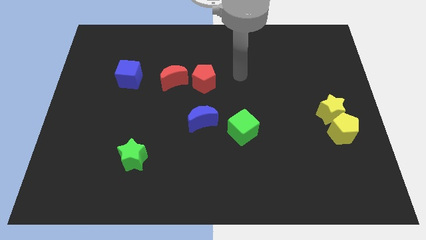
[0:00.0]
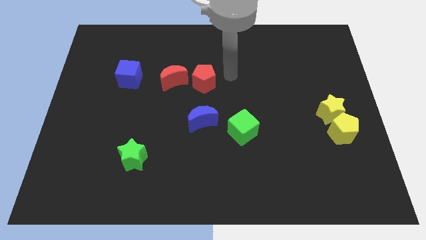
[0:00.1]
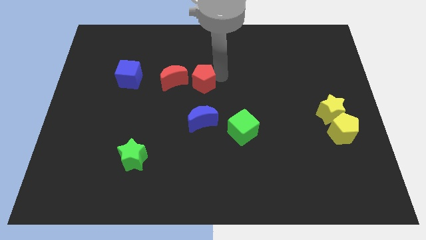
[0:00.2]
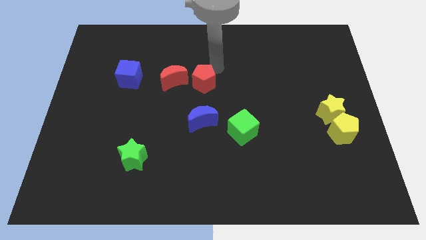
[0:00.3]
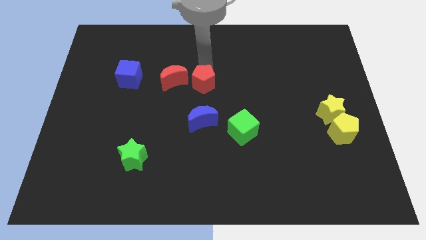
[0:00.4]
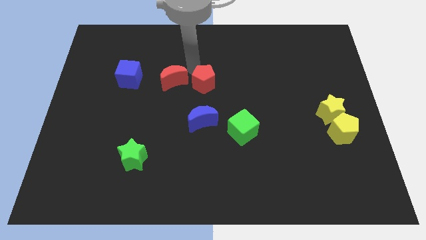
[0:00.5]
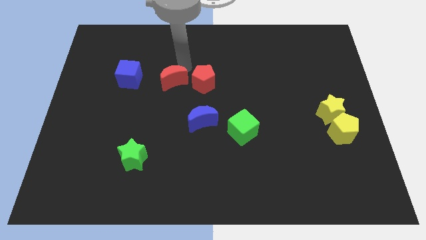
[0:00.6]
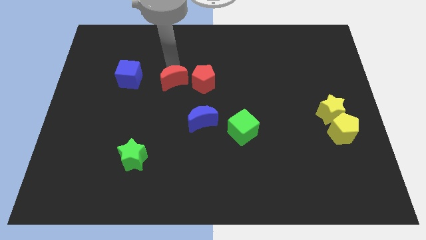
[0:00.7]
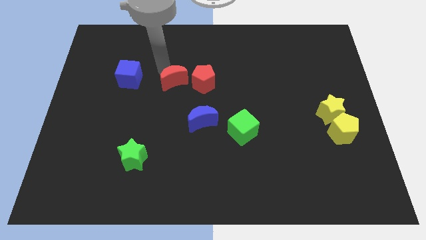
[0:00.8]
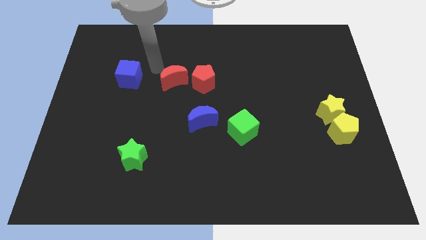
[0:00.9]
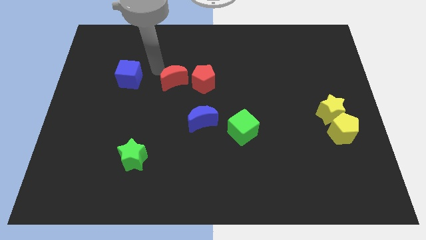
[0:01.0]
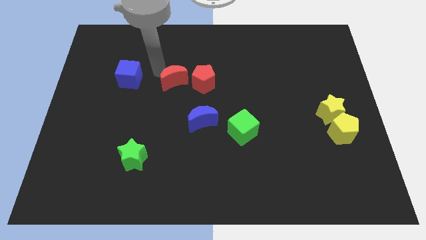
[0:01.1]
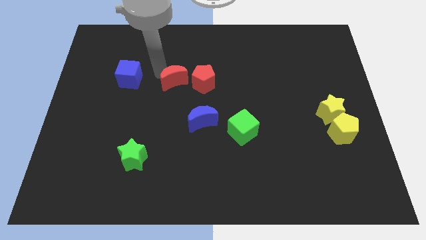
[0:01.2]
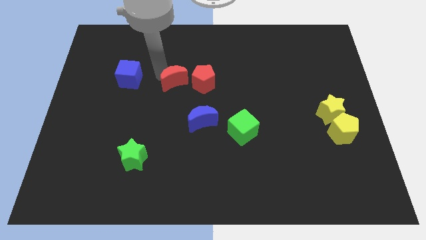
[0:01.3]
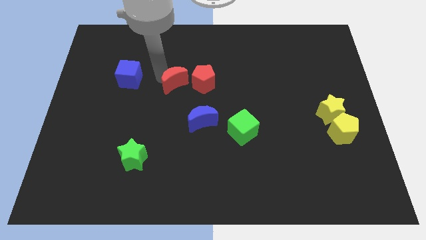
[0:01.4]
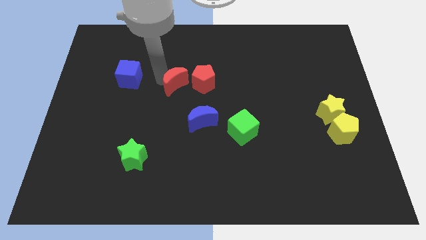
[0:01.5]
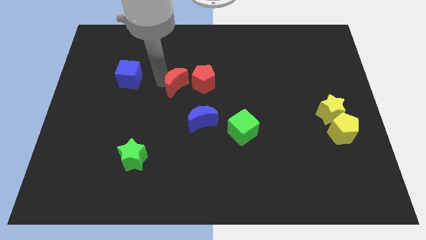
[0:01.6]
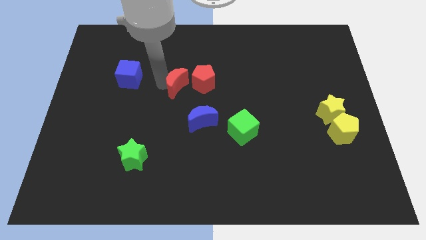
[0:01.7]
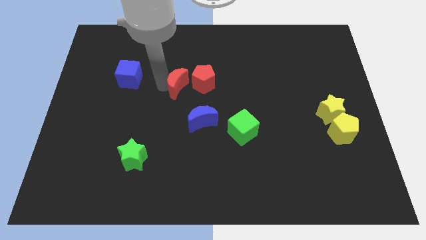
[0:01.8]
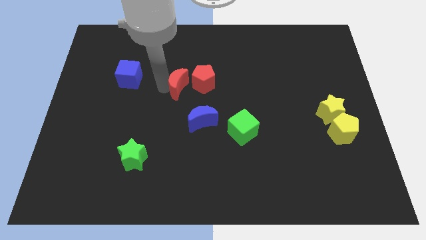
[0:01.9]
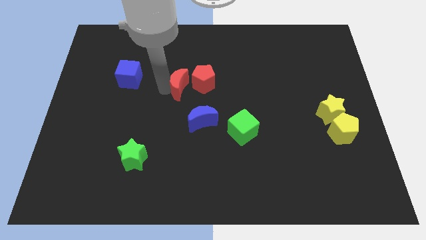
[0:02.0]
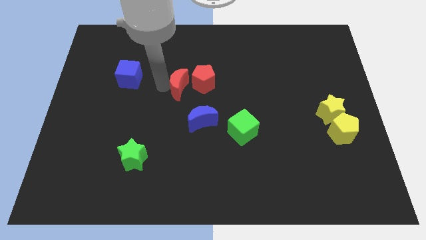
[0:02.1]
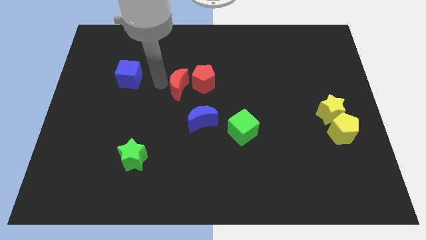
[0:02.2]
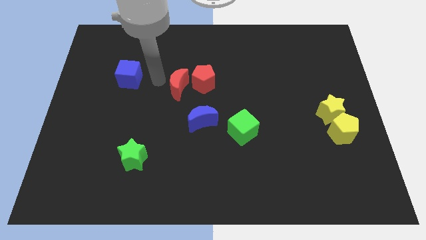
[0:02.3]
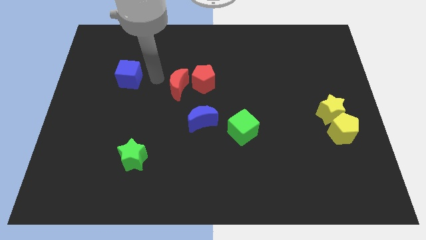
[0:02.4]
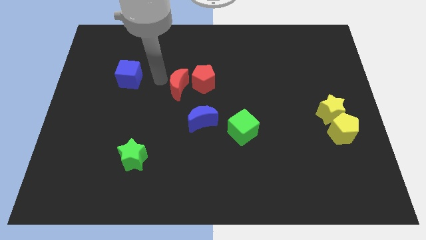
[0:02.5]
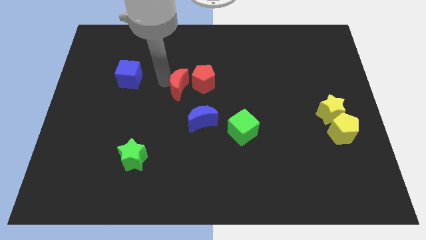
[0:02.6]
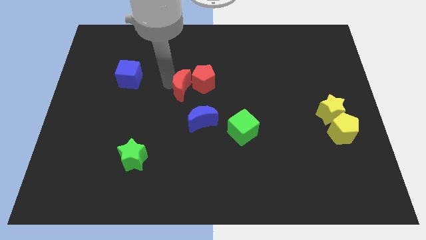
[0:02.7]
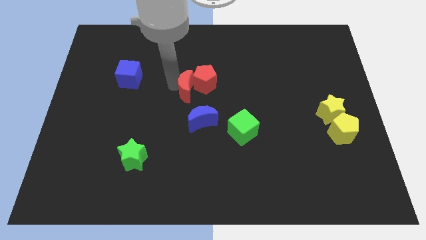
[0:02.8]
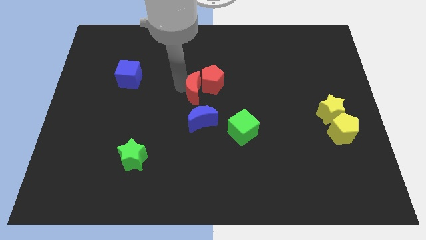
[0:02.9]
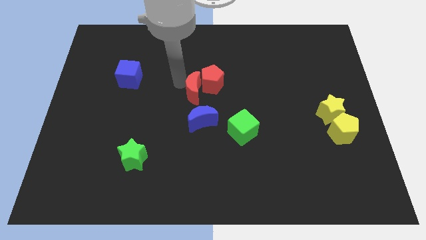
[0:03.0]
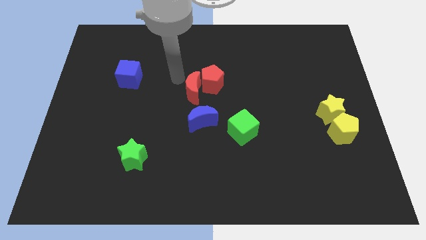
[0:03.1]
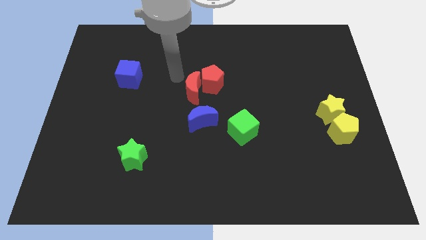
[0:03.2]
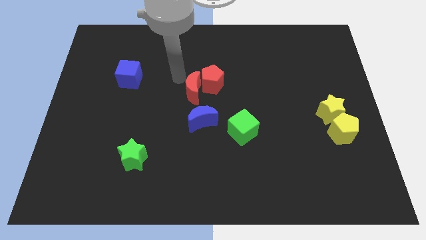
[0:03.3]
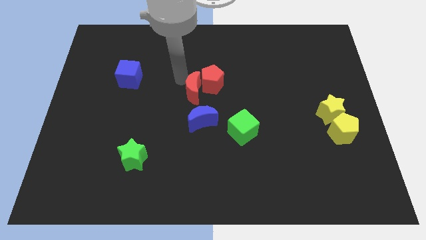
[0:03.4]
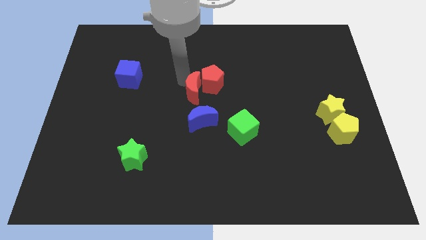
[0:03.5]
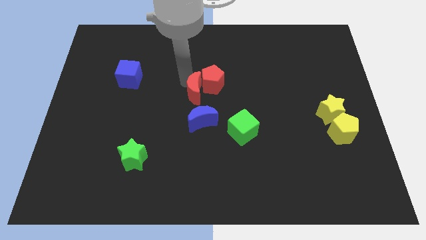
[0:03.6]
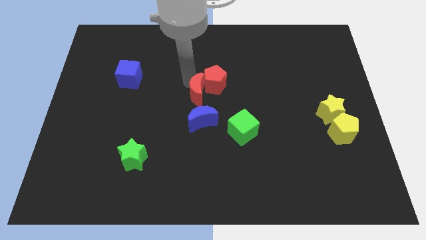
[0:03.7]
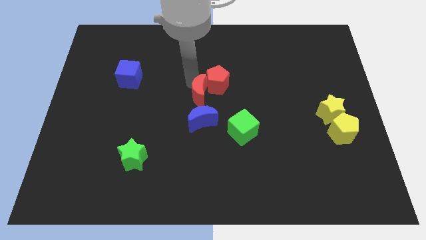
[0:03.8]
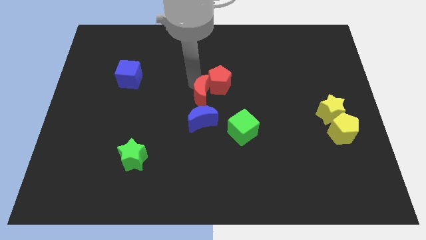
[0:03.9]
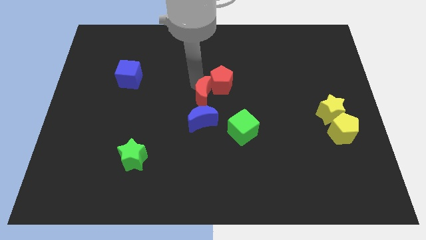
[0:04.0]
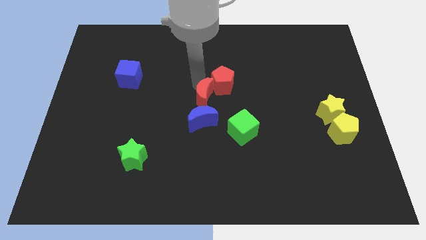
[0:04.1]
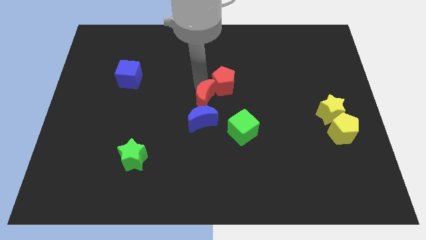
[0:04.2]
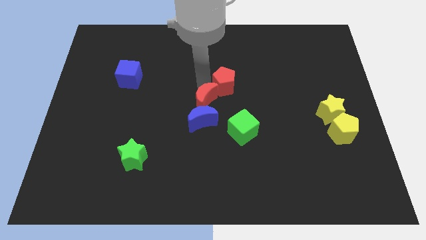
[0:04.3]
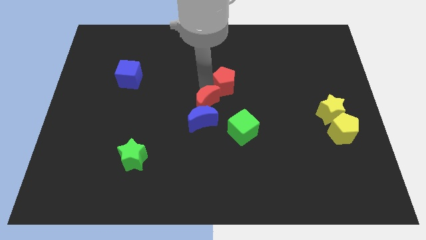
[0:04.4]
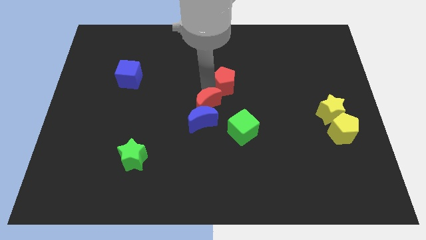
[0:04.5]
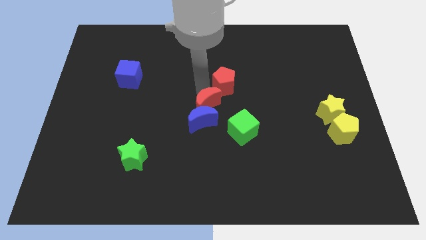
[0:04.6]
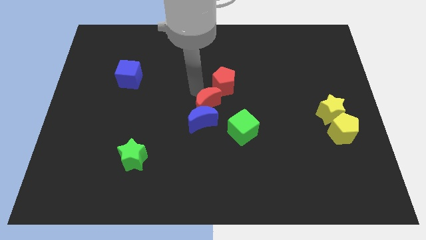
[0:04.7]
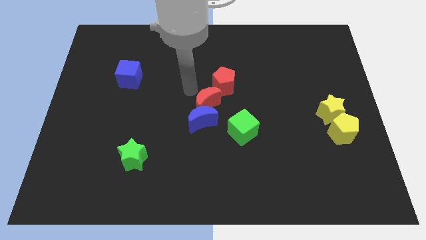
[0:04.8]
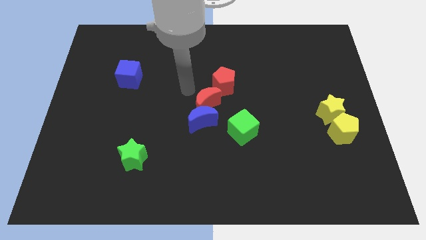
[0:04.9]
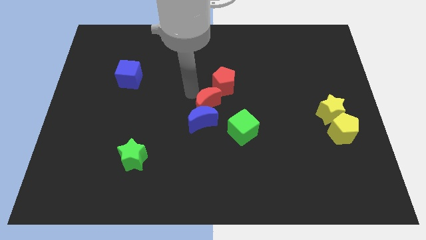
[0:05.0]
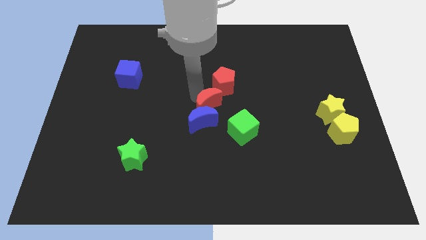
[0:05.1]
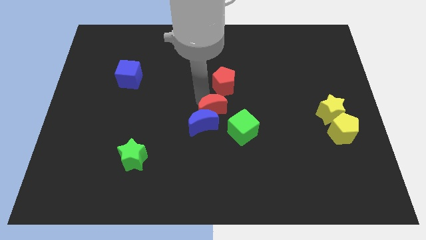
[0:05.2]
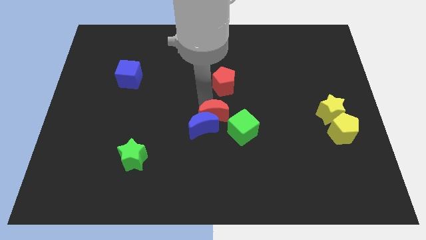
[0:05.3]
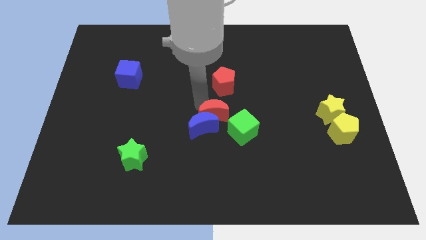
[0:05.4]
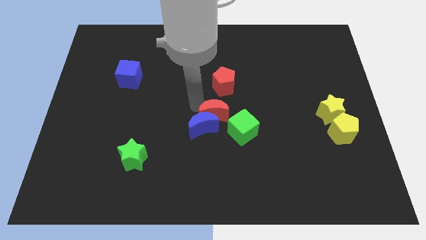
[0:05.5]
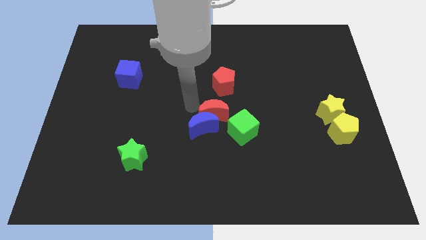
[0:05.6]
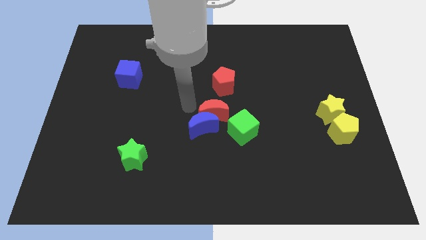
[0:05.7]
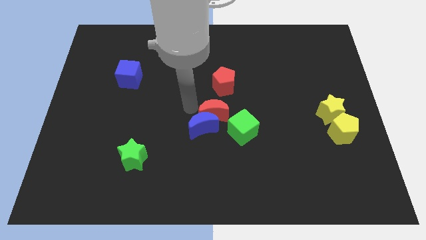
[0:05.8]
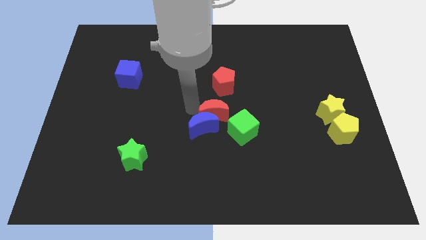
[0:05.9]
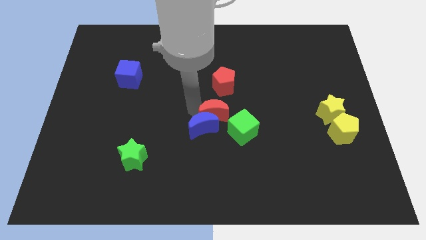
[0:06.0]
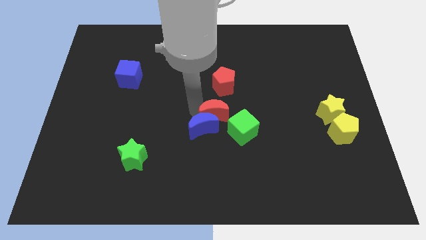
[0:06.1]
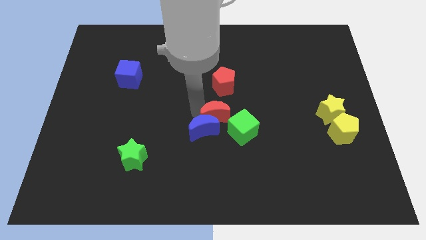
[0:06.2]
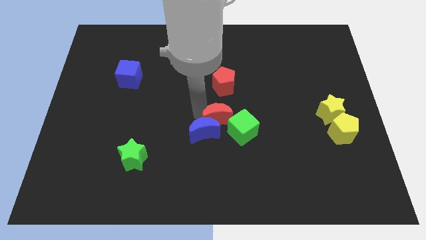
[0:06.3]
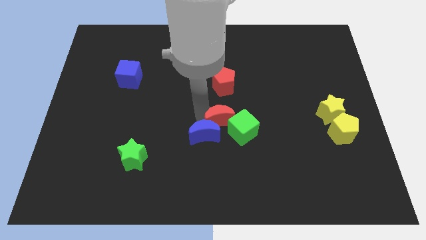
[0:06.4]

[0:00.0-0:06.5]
move the red moon towards the green cube

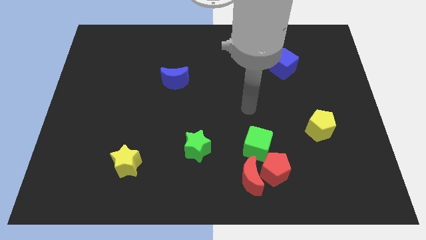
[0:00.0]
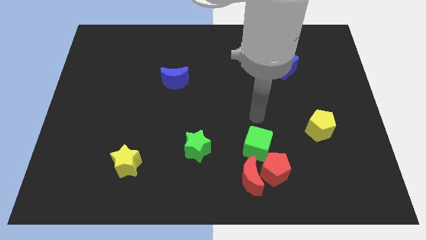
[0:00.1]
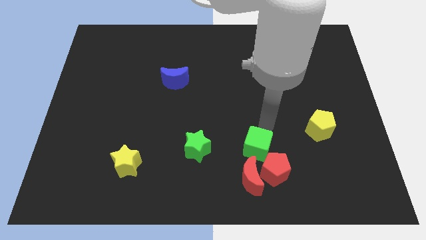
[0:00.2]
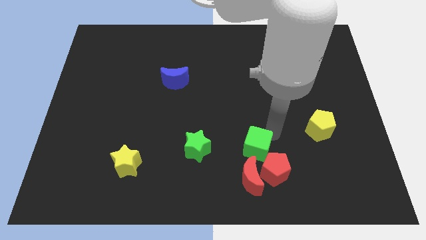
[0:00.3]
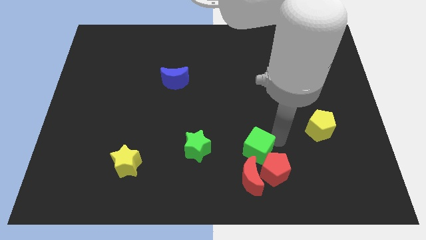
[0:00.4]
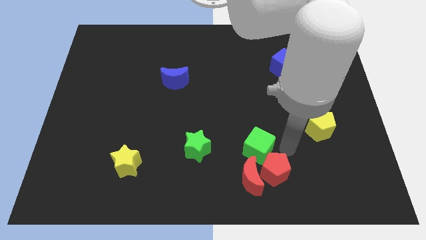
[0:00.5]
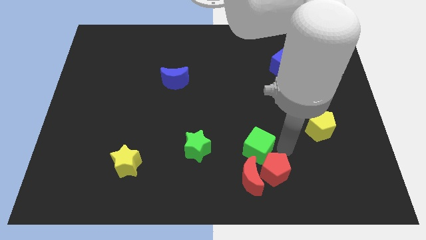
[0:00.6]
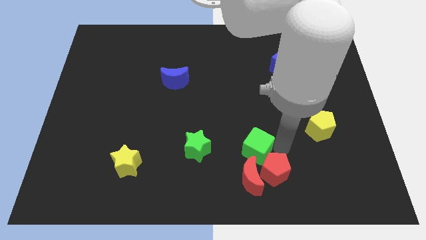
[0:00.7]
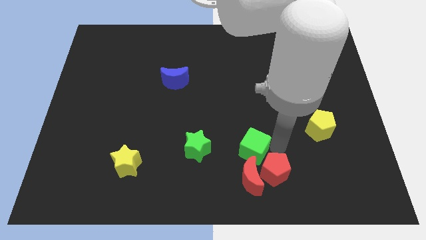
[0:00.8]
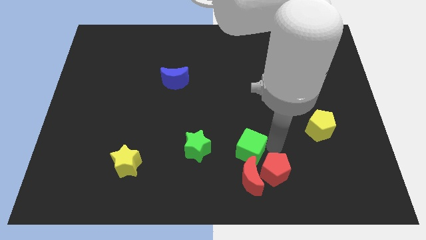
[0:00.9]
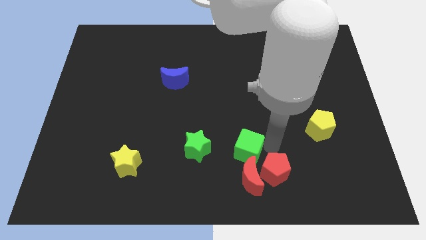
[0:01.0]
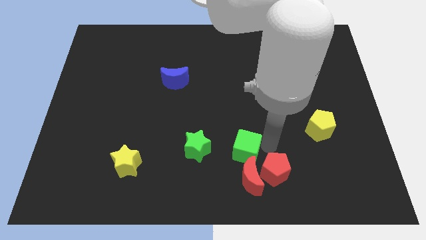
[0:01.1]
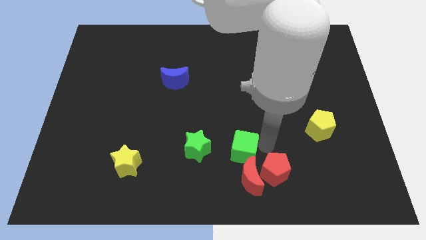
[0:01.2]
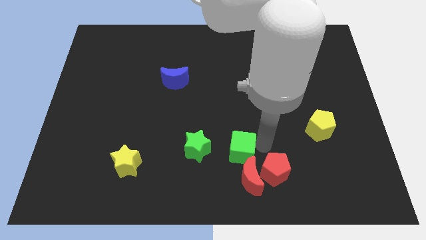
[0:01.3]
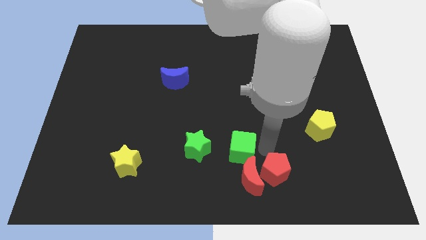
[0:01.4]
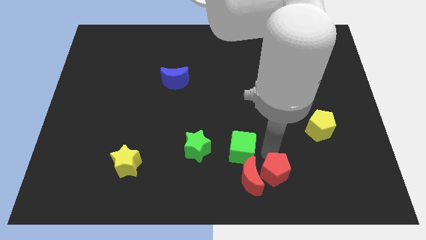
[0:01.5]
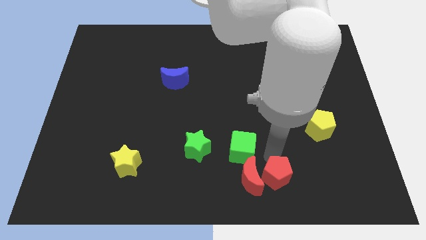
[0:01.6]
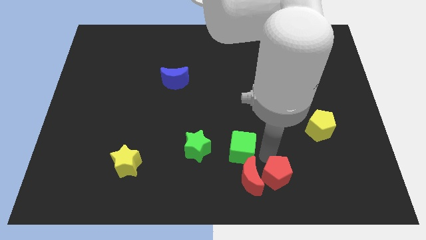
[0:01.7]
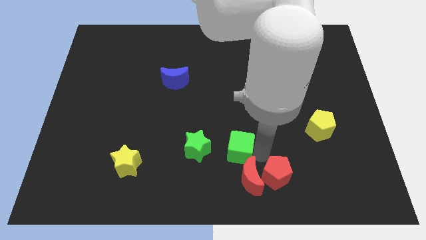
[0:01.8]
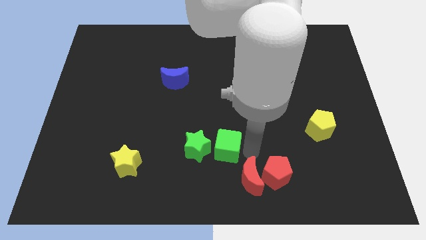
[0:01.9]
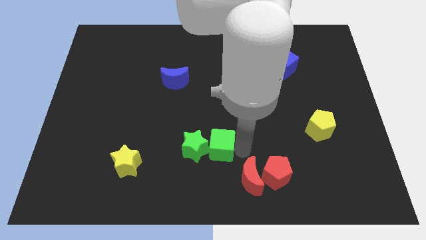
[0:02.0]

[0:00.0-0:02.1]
push the green cube to the green star
